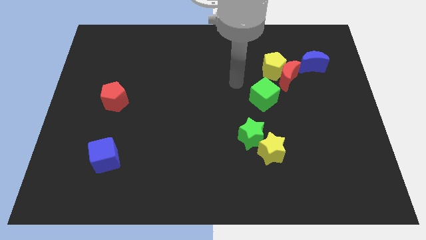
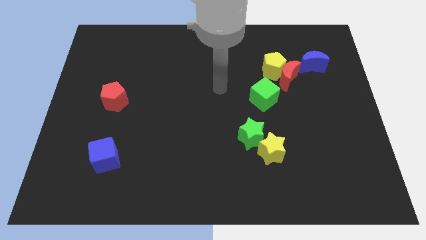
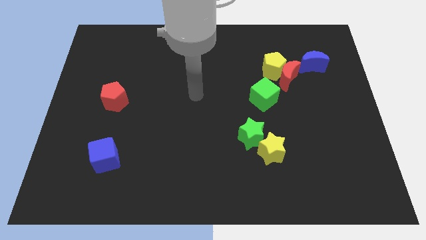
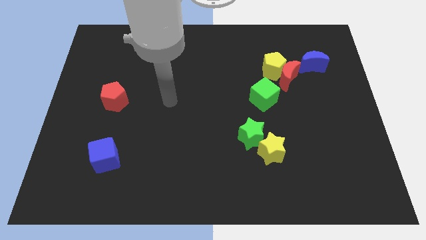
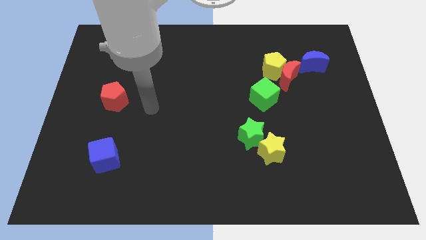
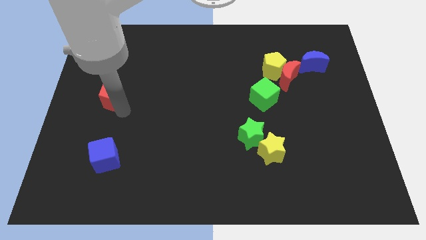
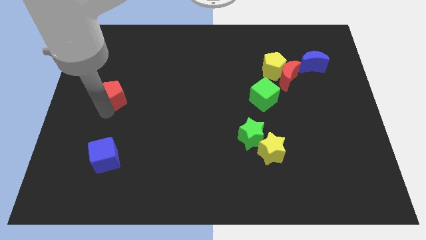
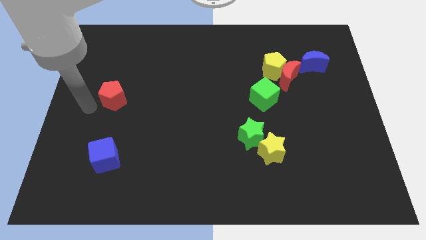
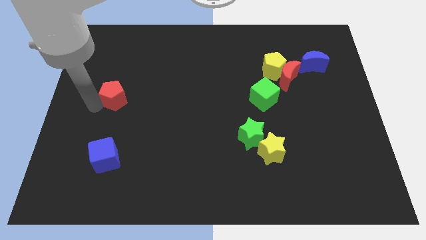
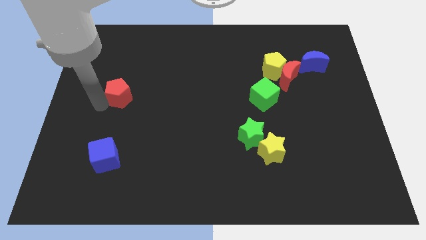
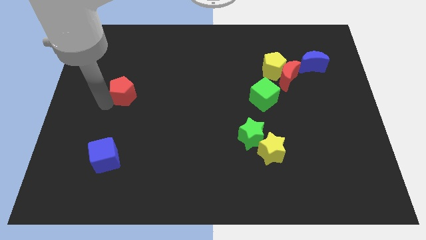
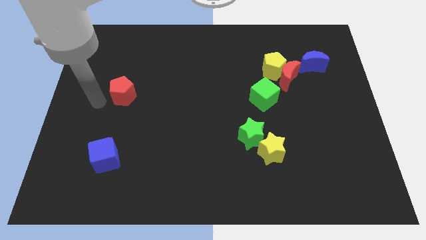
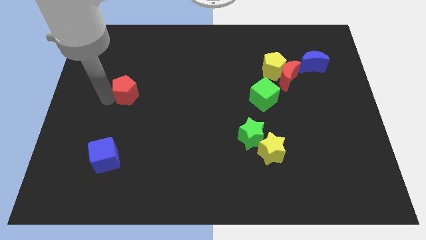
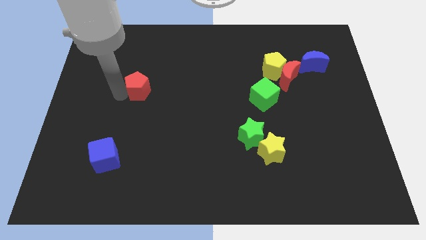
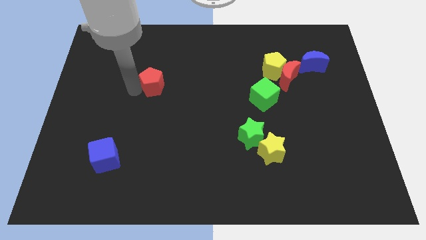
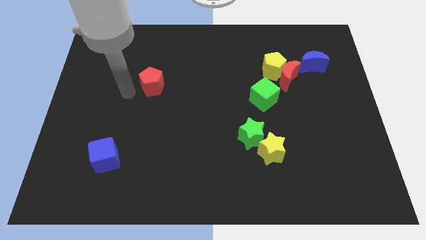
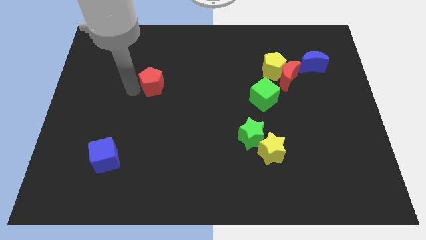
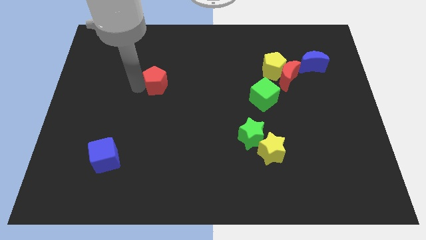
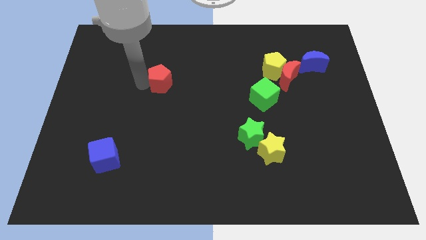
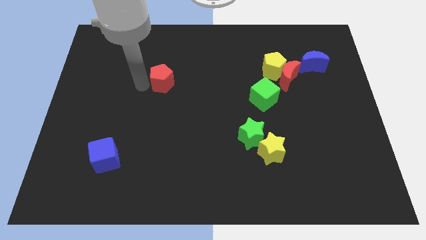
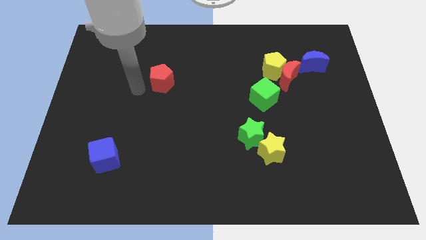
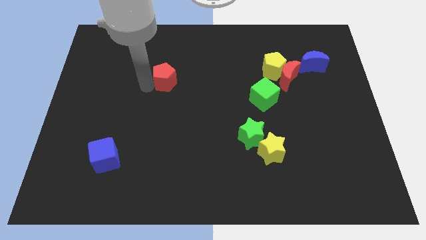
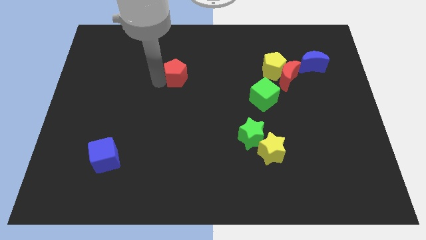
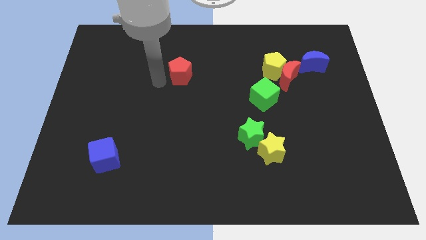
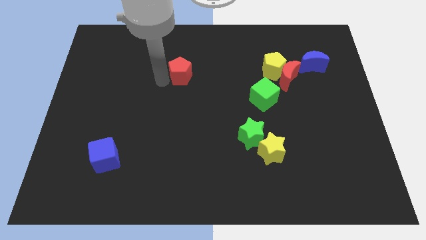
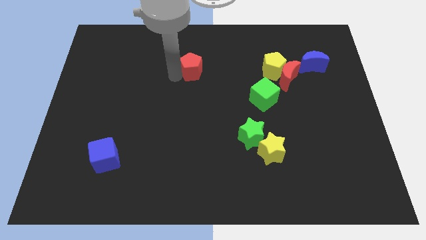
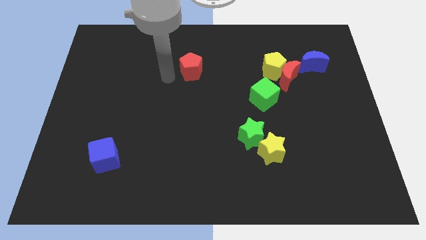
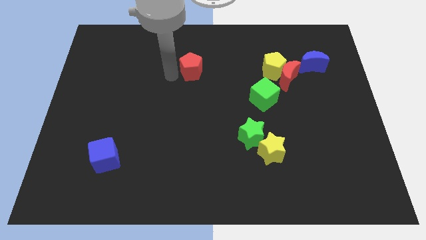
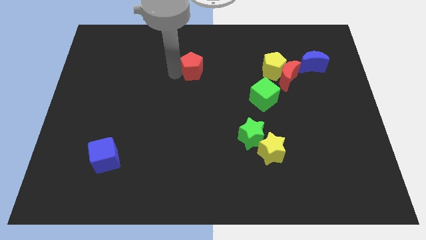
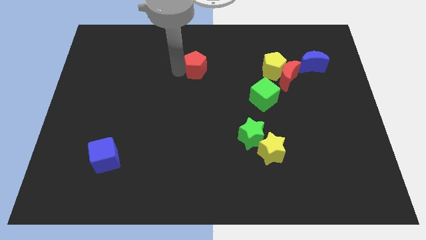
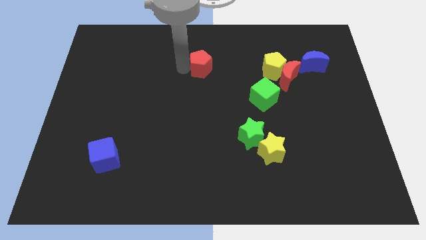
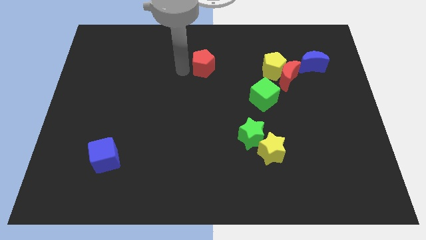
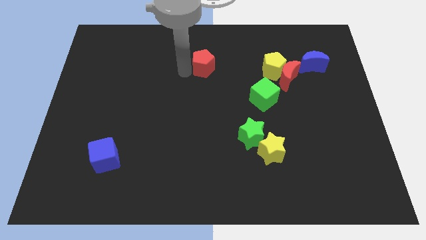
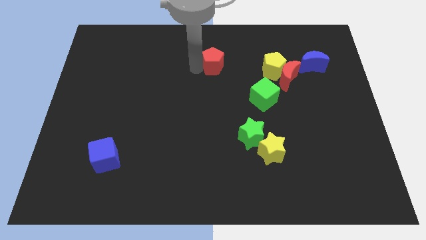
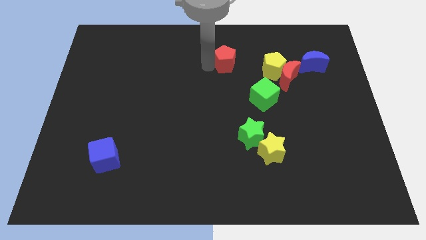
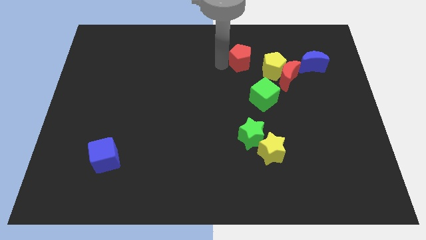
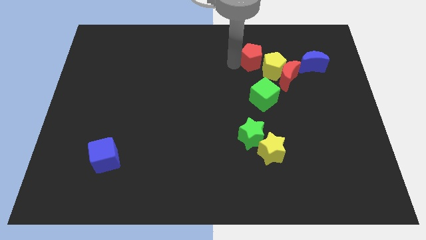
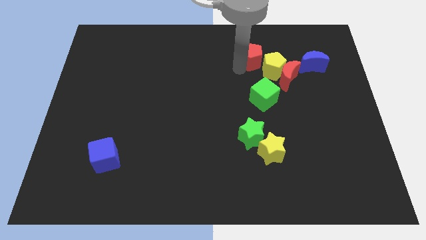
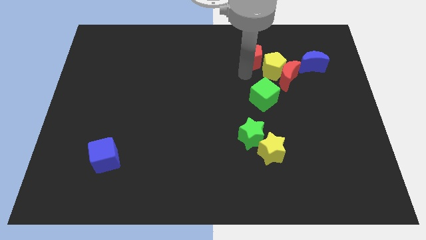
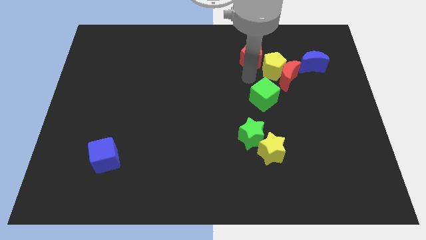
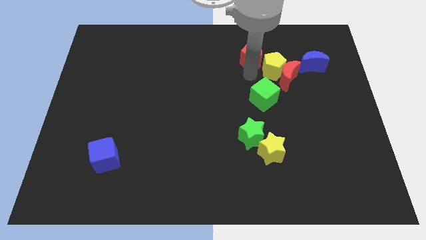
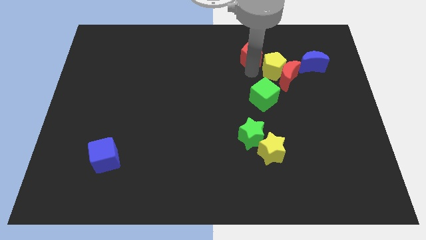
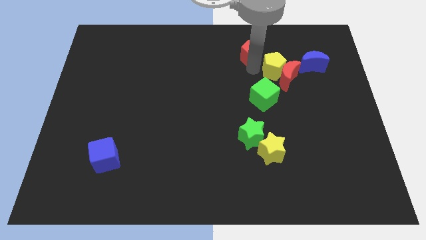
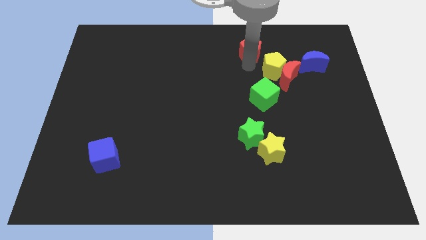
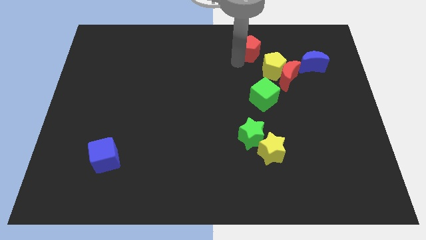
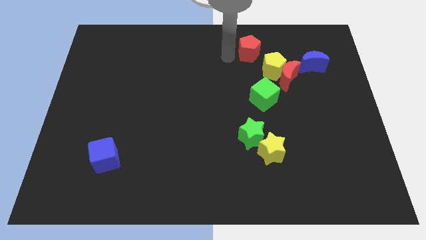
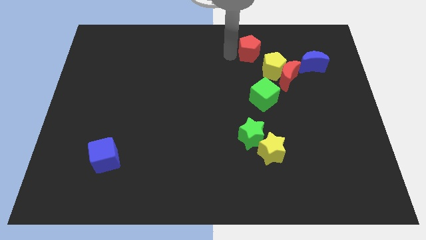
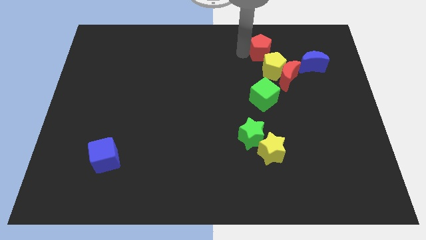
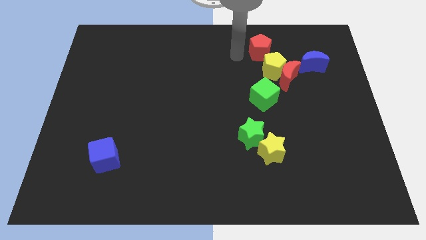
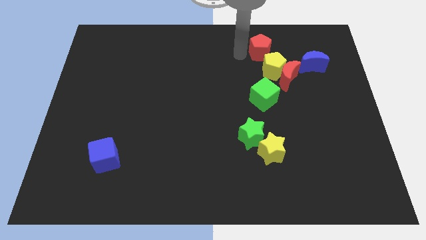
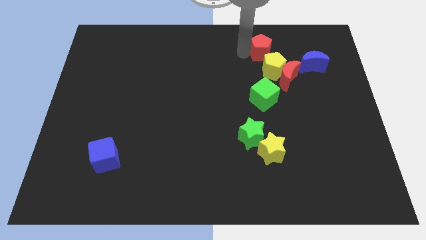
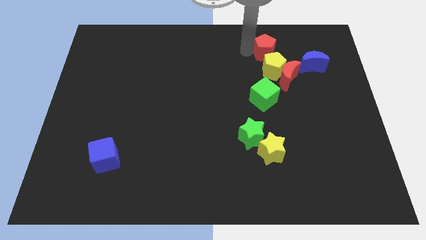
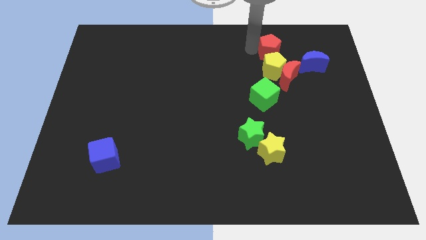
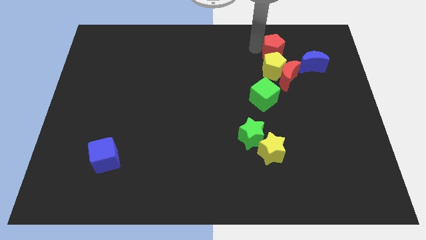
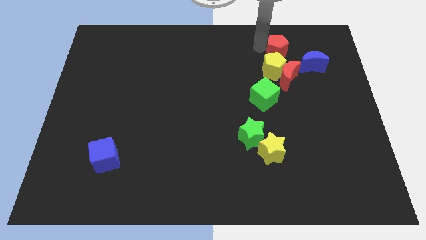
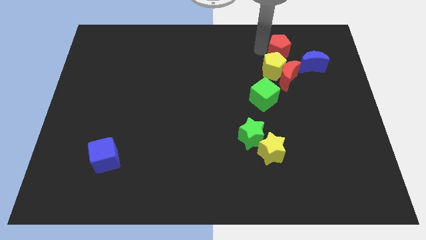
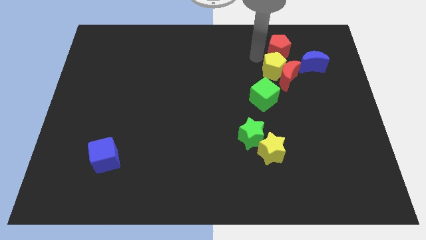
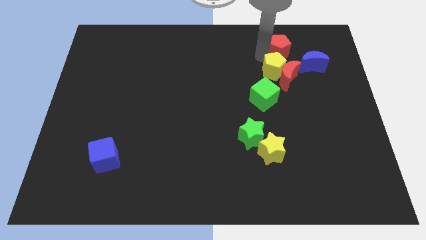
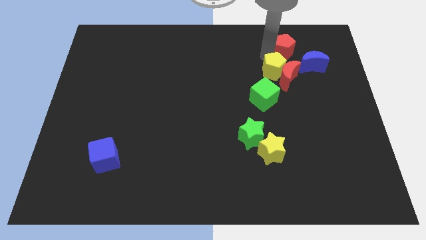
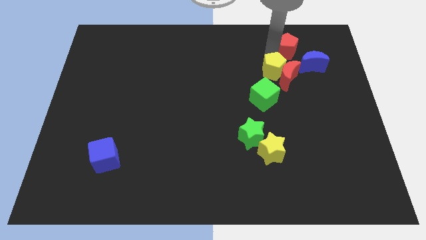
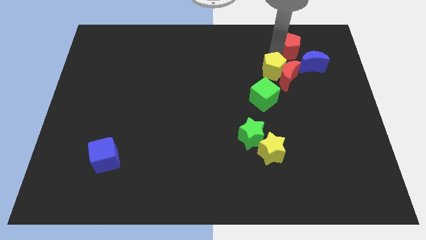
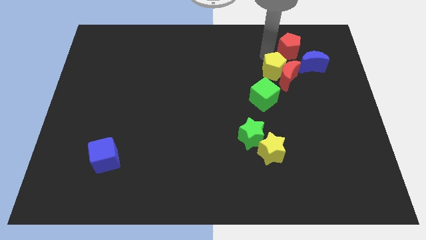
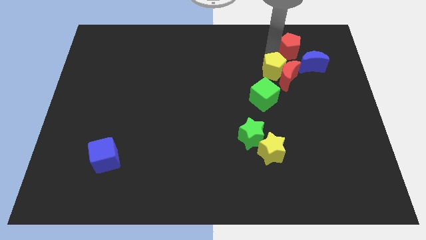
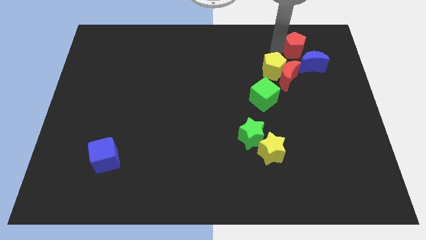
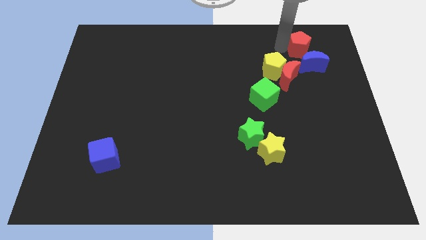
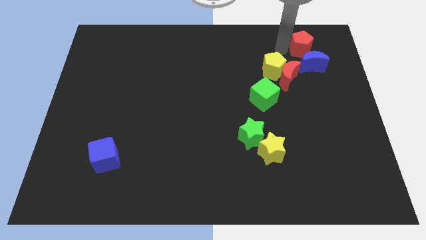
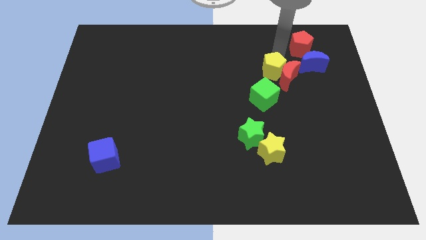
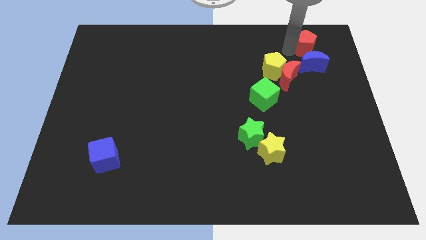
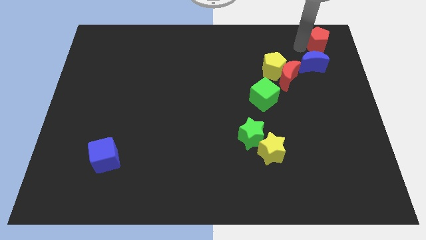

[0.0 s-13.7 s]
move the red pentagon to the top right corner
